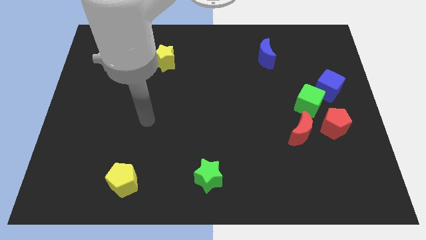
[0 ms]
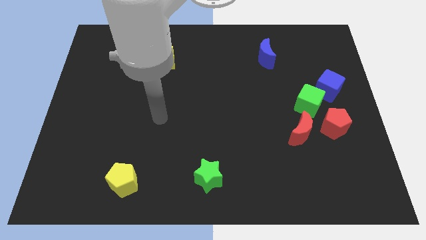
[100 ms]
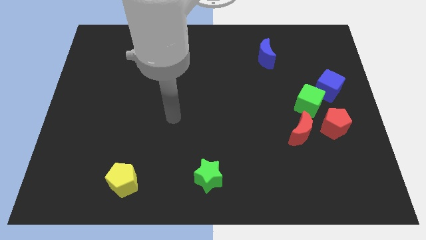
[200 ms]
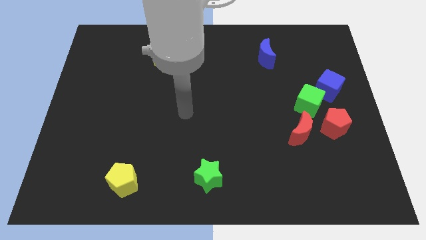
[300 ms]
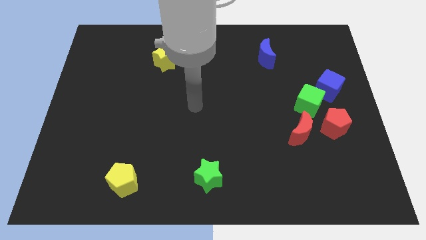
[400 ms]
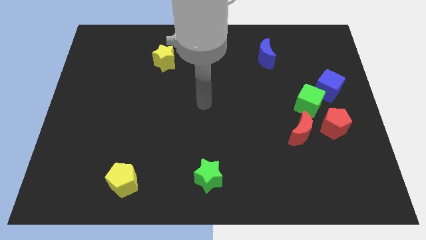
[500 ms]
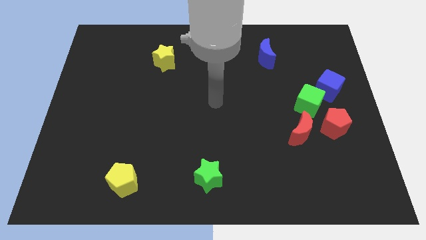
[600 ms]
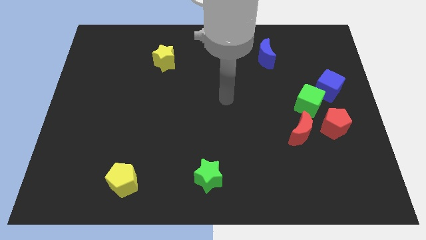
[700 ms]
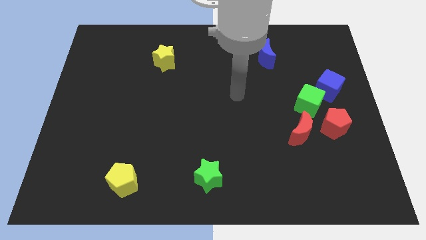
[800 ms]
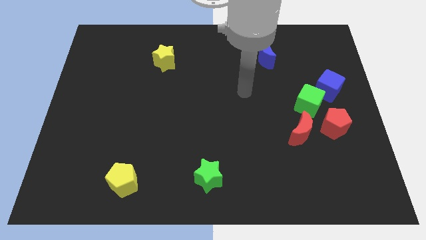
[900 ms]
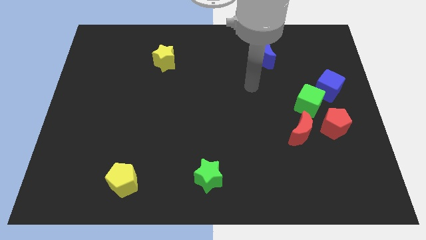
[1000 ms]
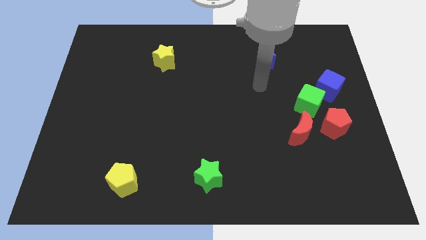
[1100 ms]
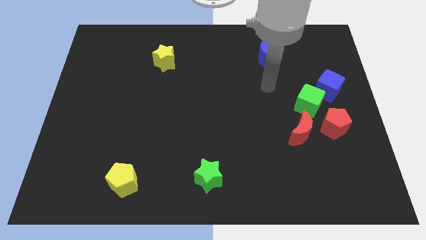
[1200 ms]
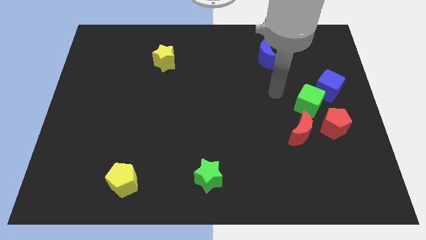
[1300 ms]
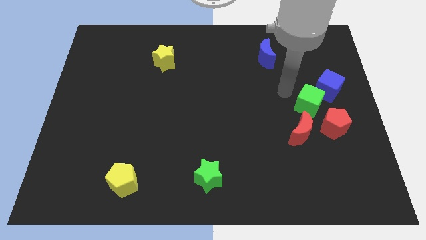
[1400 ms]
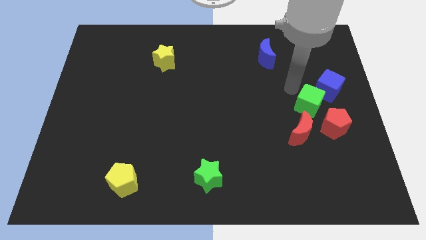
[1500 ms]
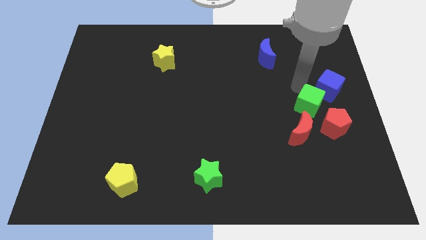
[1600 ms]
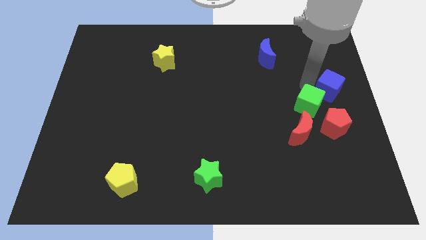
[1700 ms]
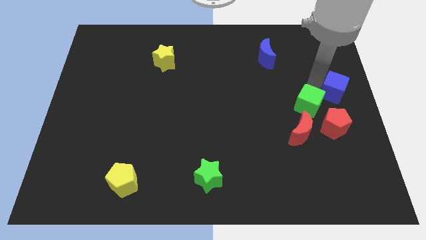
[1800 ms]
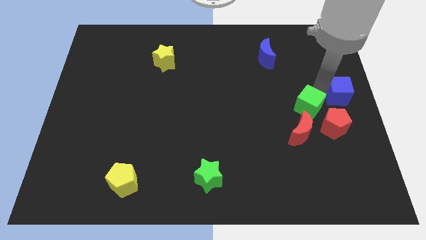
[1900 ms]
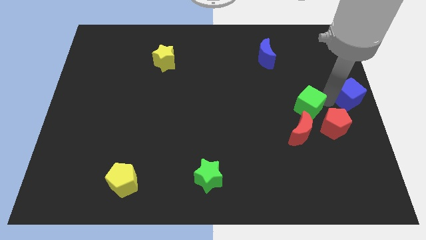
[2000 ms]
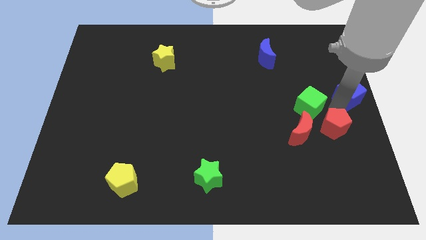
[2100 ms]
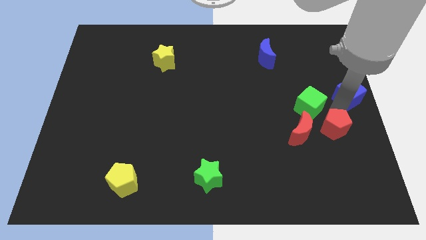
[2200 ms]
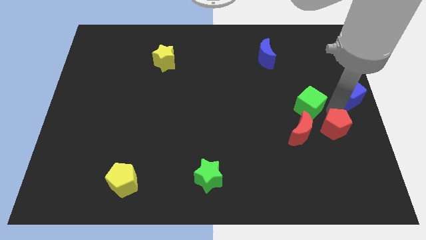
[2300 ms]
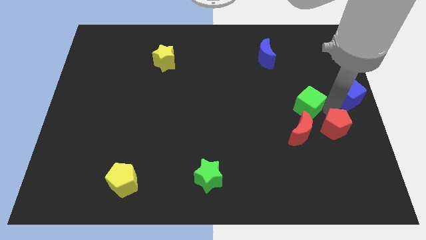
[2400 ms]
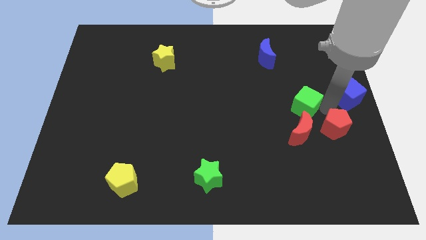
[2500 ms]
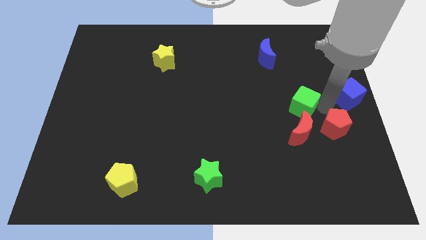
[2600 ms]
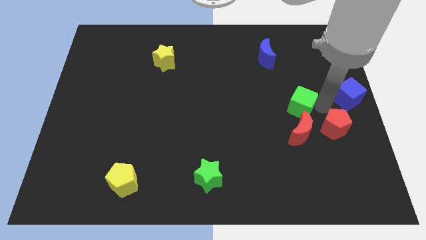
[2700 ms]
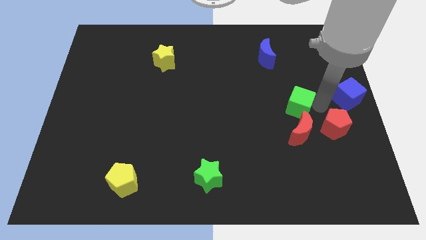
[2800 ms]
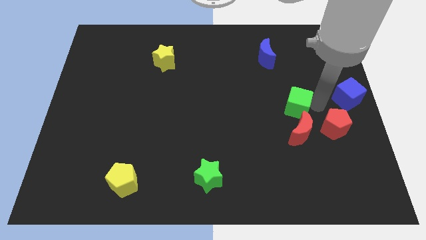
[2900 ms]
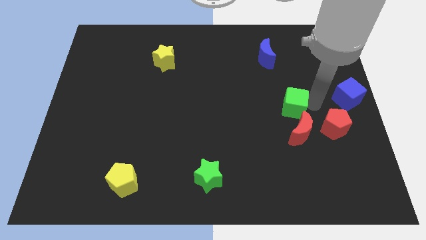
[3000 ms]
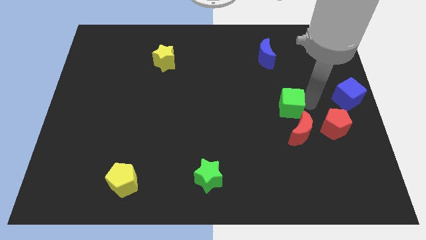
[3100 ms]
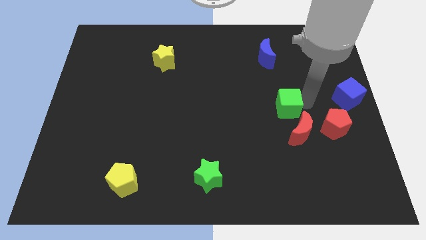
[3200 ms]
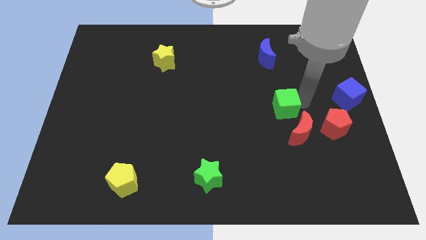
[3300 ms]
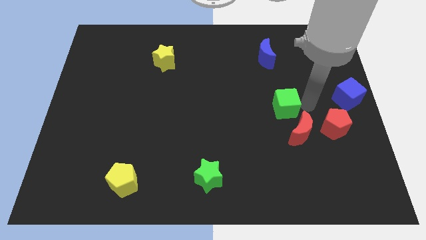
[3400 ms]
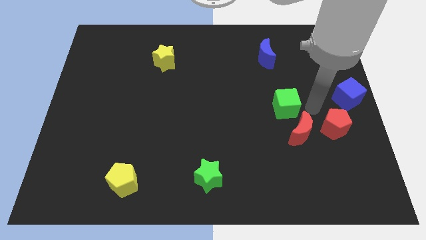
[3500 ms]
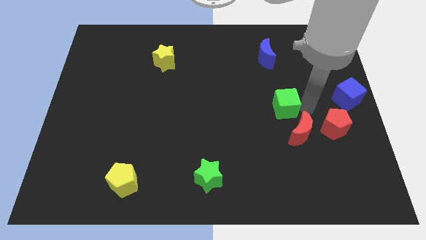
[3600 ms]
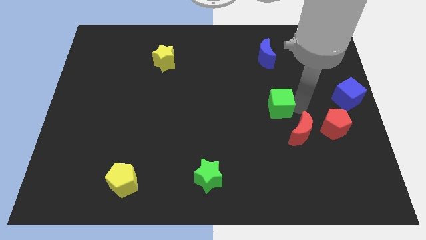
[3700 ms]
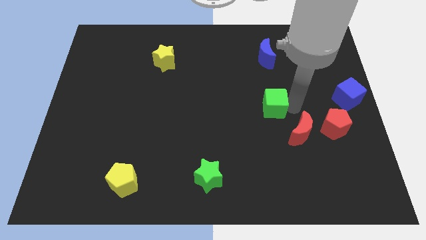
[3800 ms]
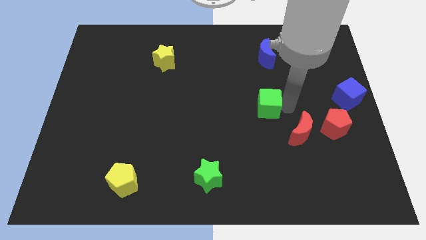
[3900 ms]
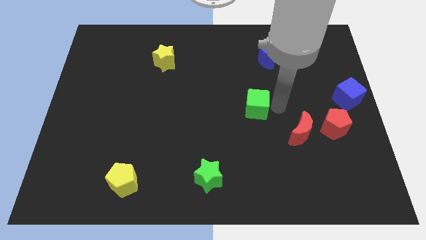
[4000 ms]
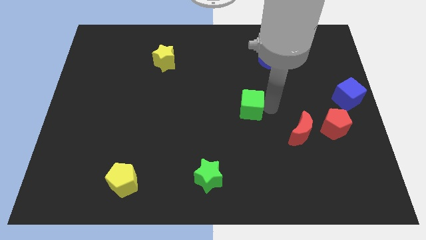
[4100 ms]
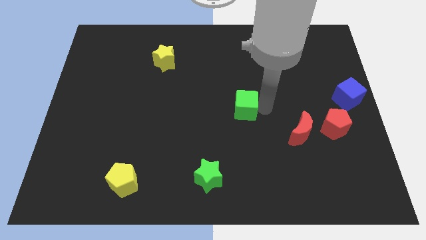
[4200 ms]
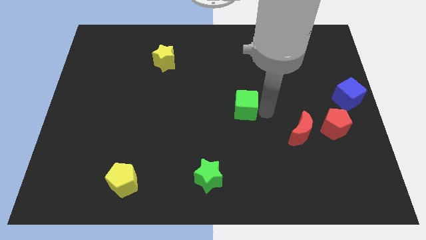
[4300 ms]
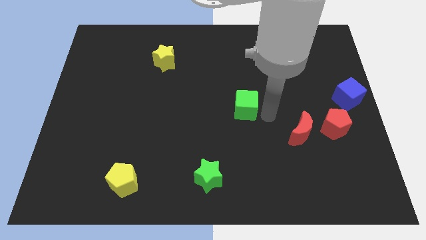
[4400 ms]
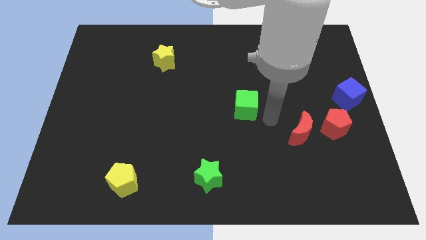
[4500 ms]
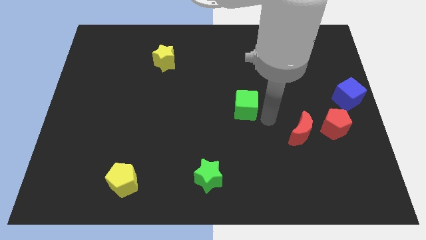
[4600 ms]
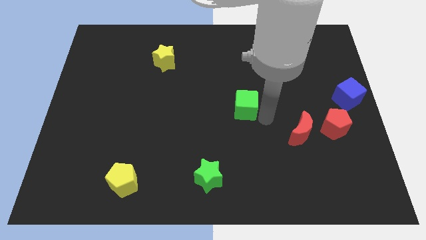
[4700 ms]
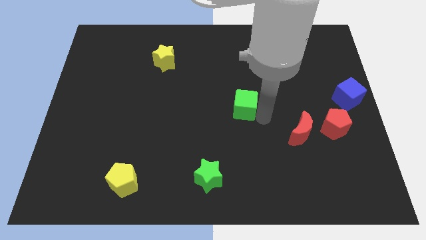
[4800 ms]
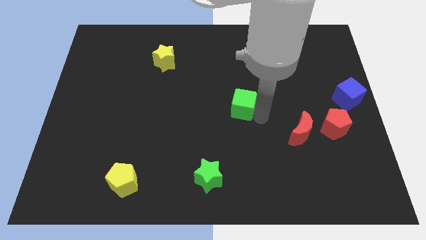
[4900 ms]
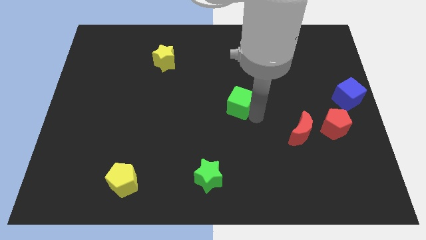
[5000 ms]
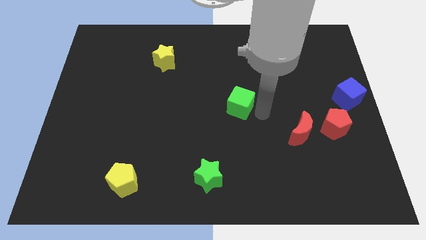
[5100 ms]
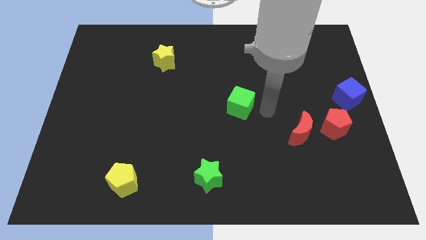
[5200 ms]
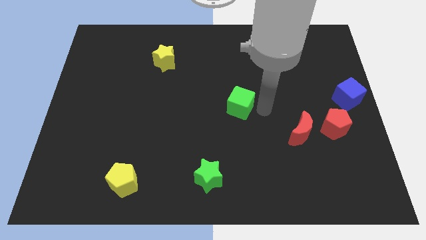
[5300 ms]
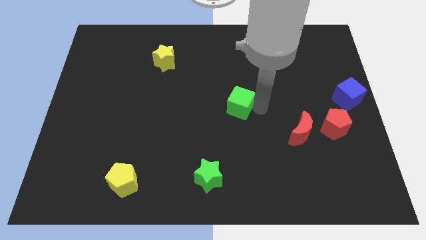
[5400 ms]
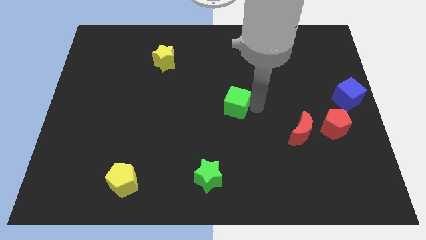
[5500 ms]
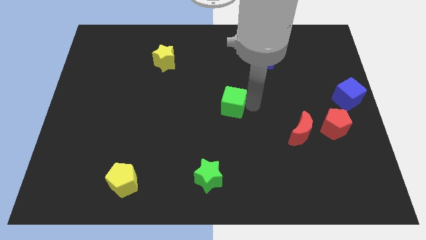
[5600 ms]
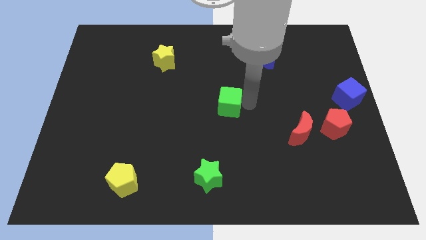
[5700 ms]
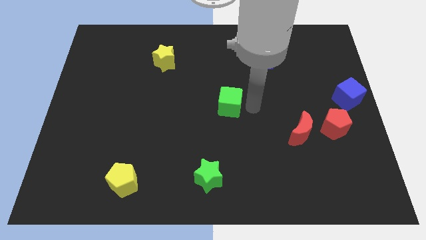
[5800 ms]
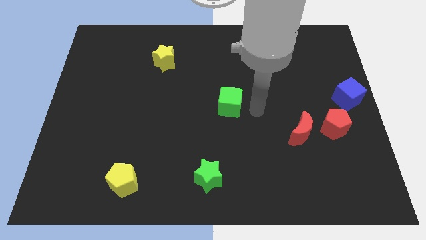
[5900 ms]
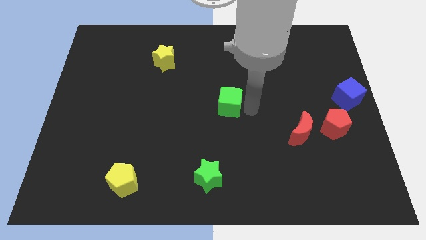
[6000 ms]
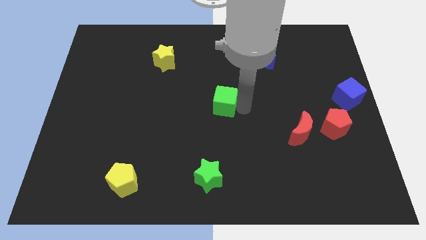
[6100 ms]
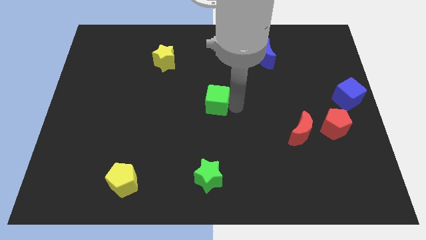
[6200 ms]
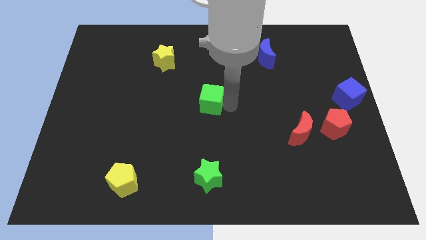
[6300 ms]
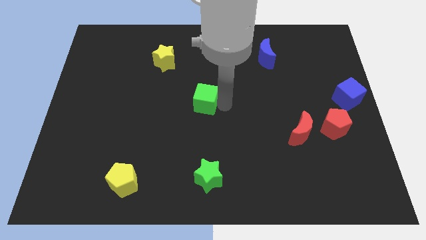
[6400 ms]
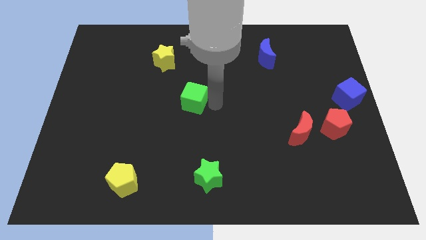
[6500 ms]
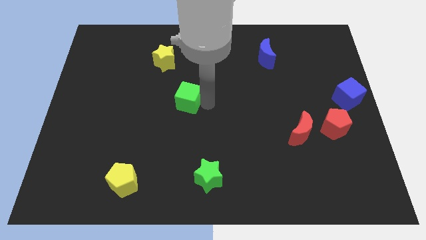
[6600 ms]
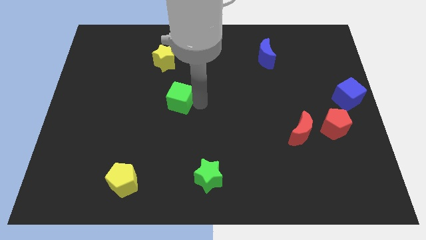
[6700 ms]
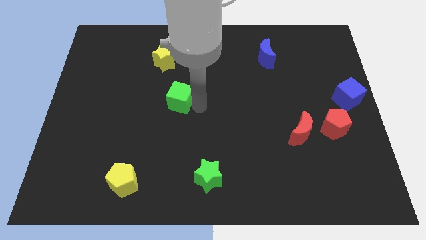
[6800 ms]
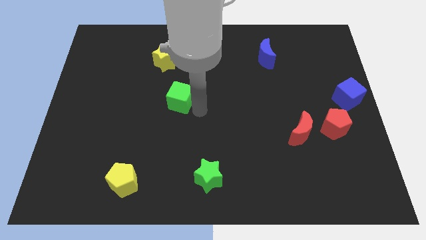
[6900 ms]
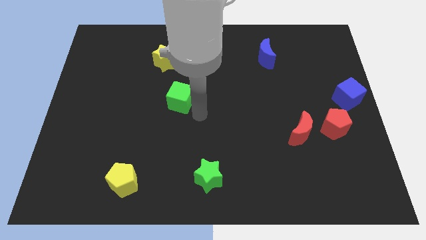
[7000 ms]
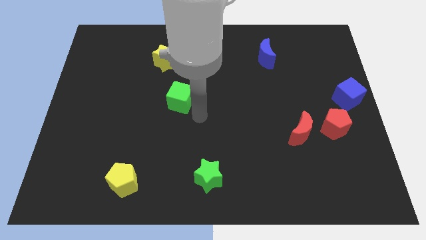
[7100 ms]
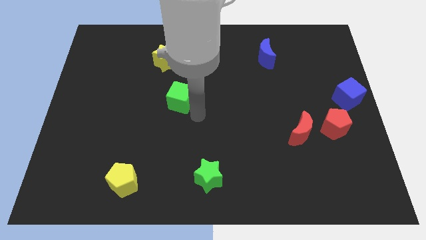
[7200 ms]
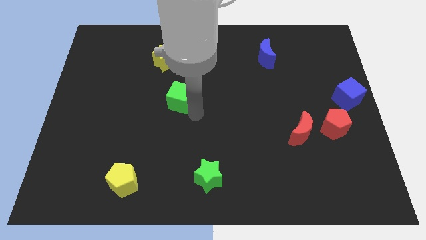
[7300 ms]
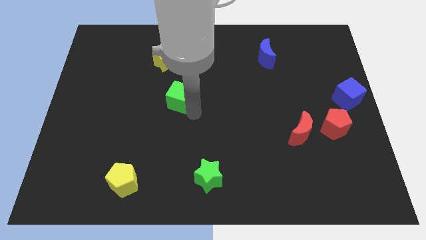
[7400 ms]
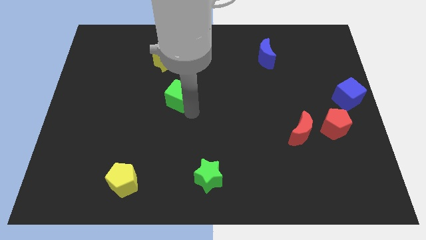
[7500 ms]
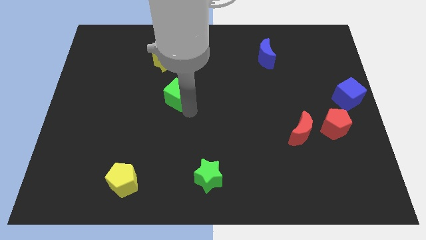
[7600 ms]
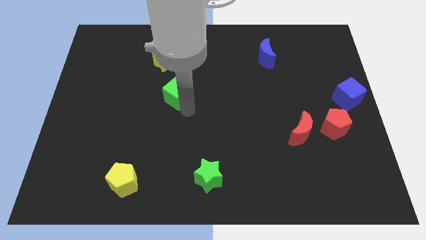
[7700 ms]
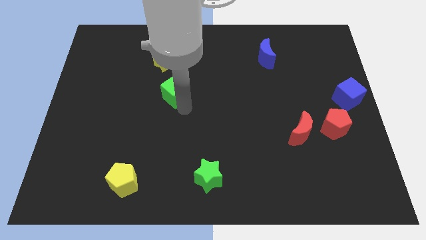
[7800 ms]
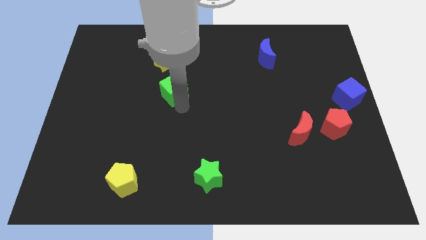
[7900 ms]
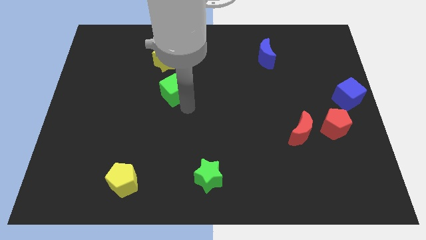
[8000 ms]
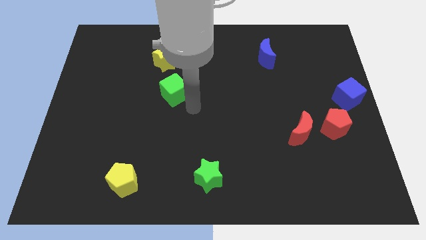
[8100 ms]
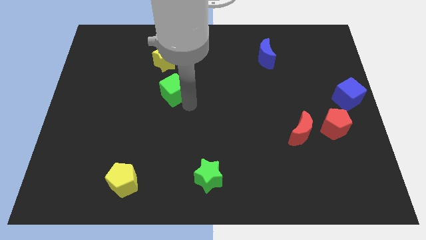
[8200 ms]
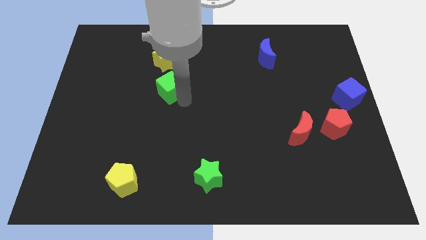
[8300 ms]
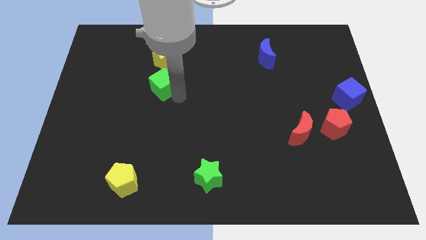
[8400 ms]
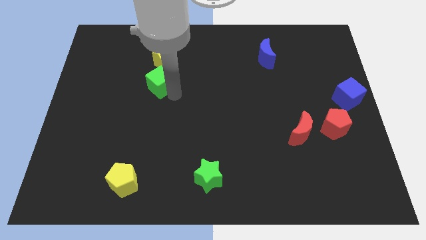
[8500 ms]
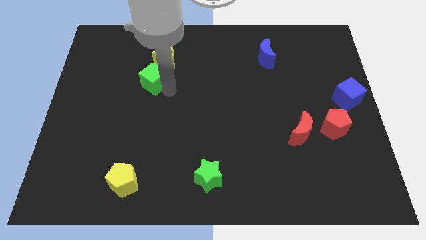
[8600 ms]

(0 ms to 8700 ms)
push the green cube to the bottom left of the yellow star
